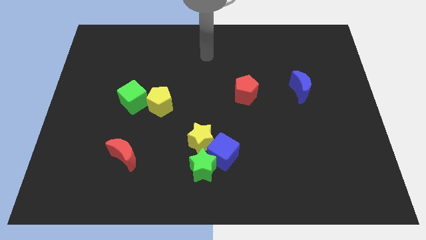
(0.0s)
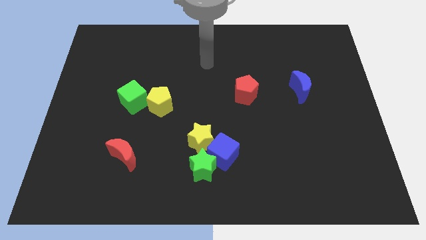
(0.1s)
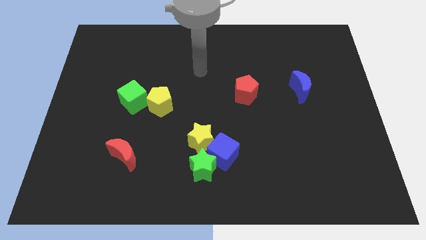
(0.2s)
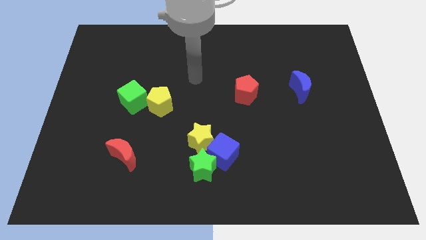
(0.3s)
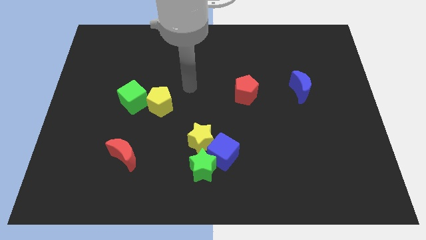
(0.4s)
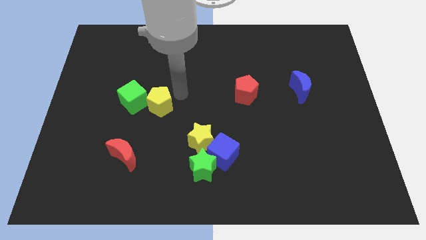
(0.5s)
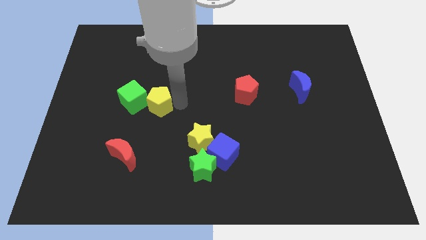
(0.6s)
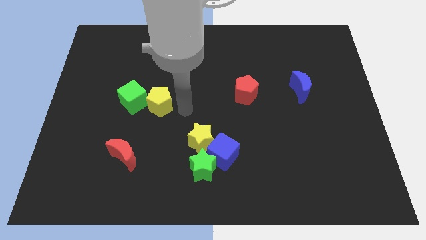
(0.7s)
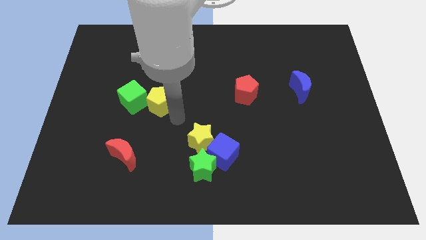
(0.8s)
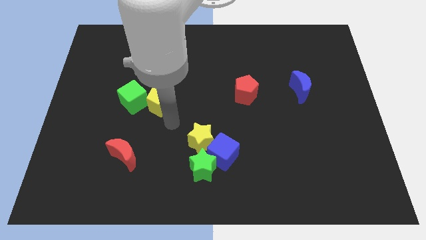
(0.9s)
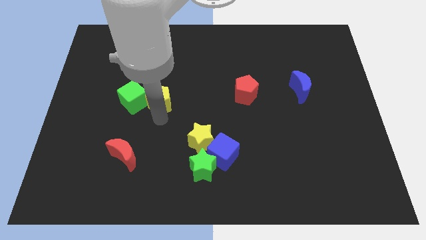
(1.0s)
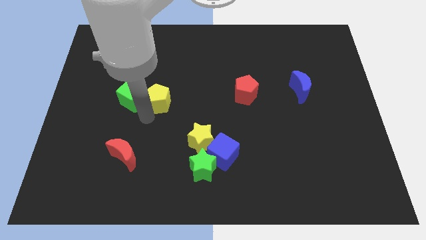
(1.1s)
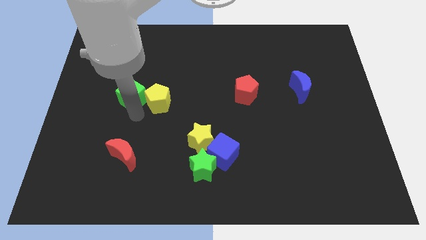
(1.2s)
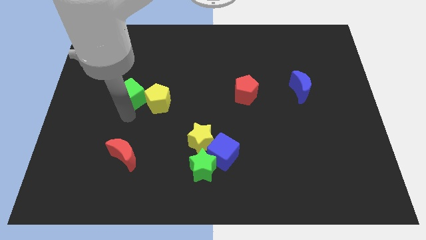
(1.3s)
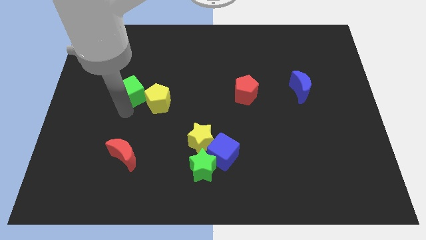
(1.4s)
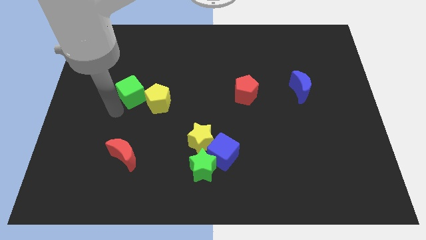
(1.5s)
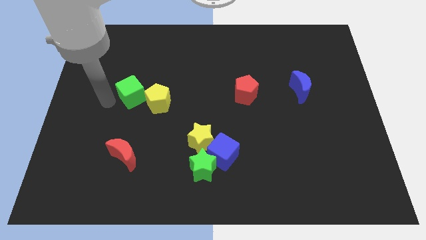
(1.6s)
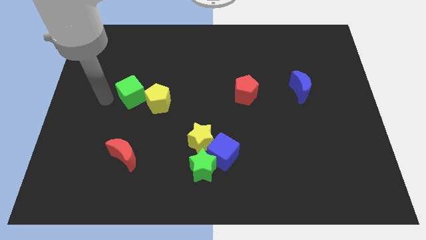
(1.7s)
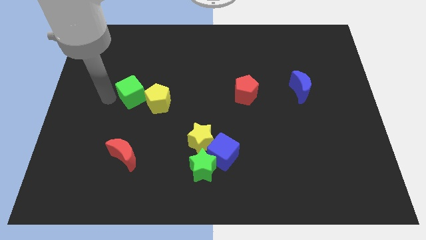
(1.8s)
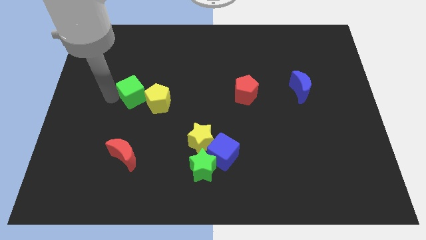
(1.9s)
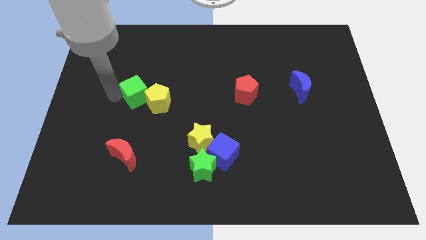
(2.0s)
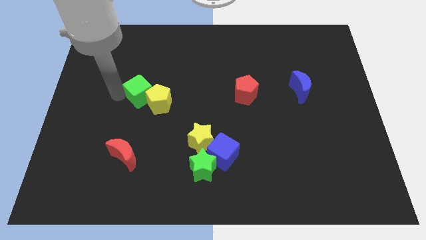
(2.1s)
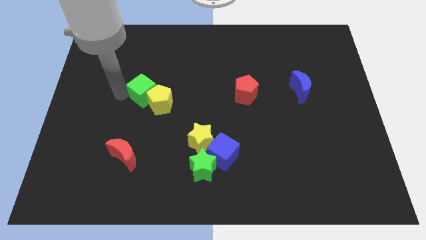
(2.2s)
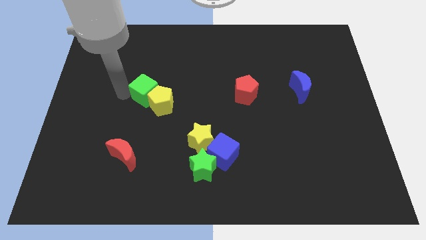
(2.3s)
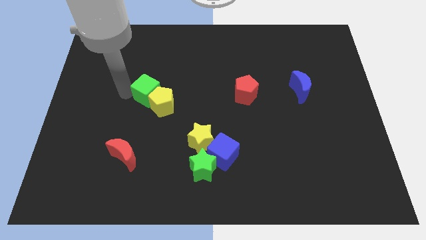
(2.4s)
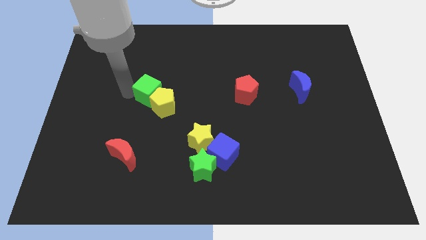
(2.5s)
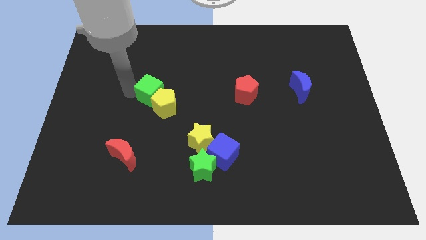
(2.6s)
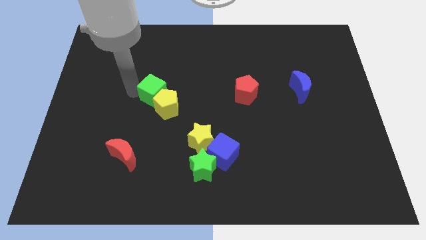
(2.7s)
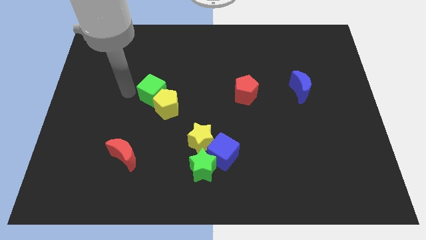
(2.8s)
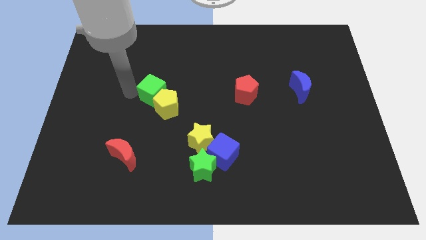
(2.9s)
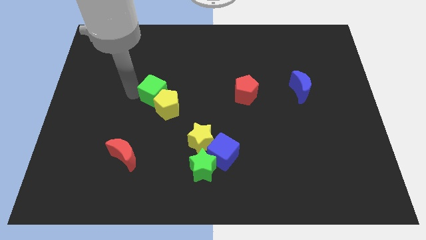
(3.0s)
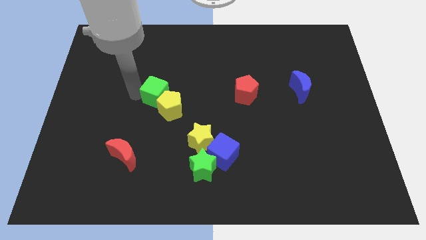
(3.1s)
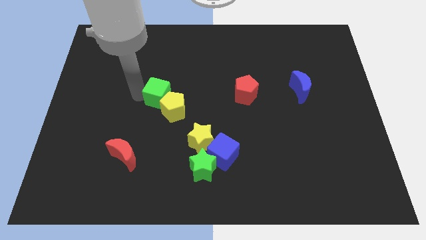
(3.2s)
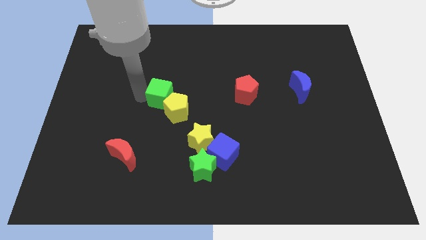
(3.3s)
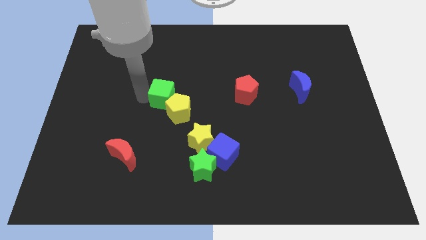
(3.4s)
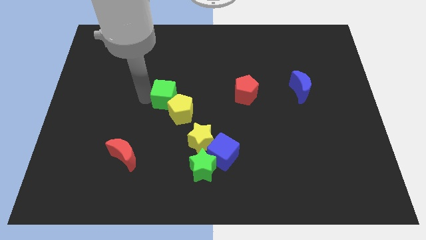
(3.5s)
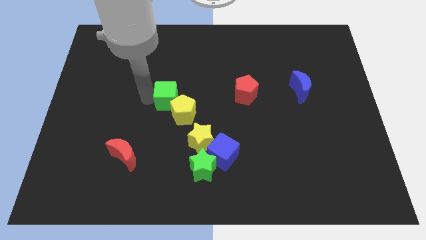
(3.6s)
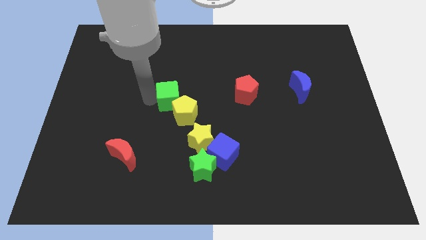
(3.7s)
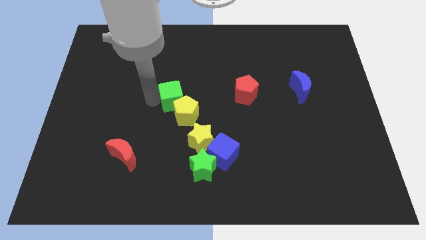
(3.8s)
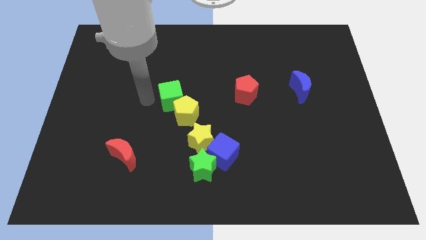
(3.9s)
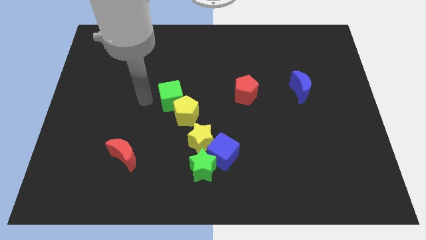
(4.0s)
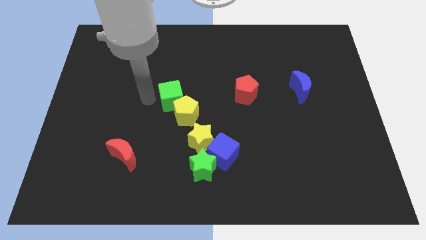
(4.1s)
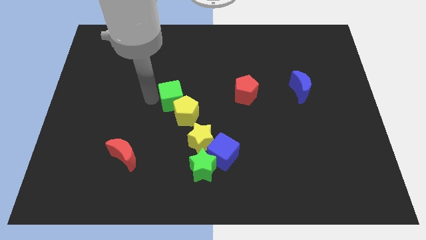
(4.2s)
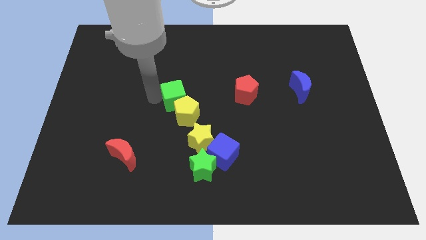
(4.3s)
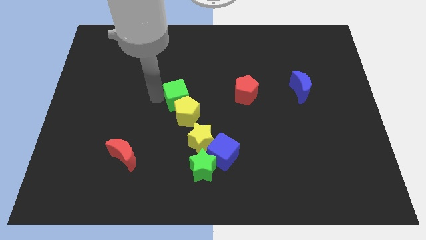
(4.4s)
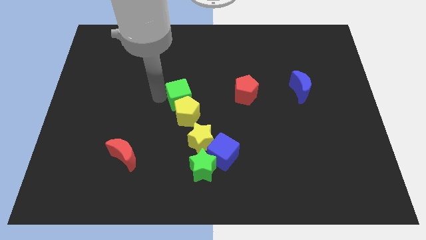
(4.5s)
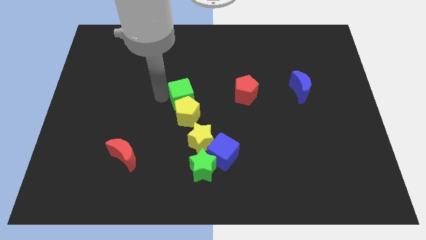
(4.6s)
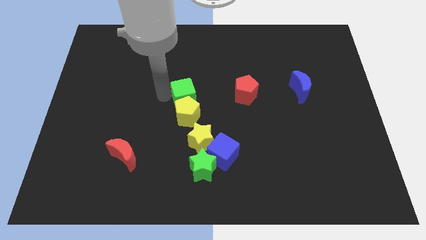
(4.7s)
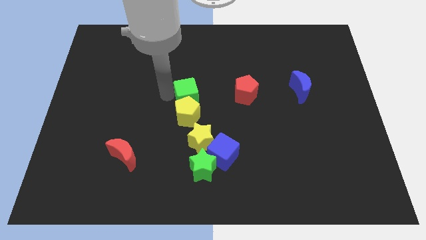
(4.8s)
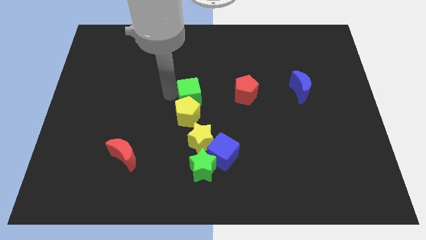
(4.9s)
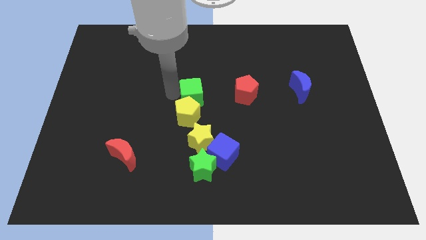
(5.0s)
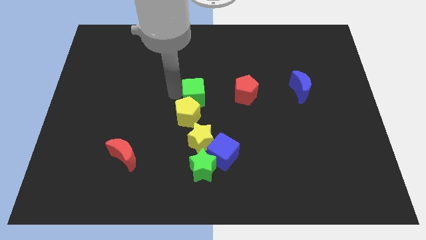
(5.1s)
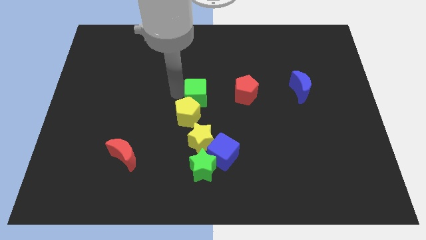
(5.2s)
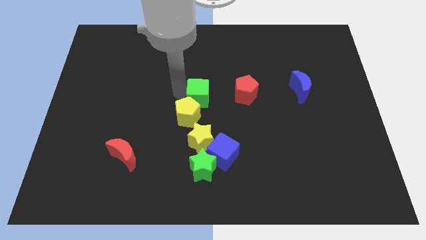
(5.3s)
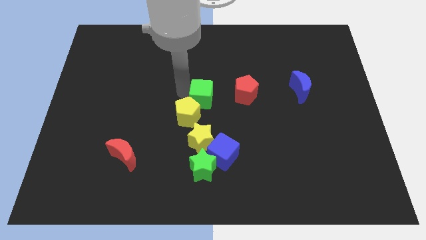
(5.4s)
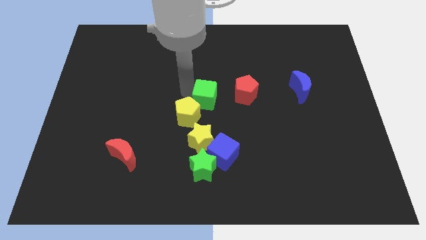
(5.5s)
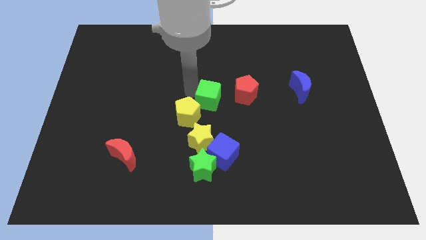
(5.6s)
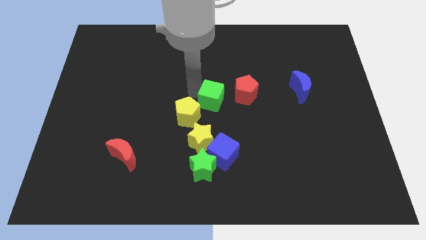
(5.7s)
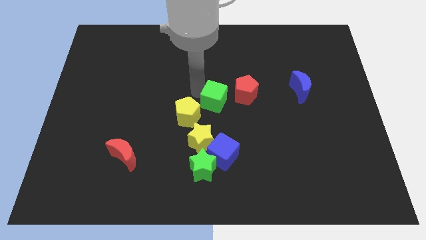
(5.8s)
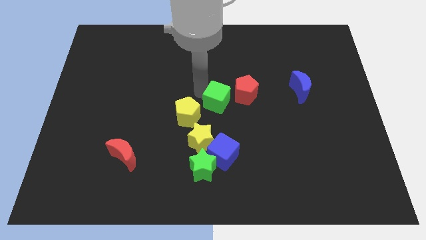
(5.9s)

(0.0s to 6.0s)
slide the green cube right

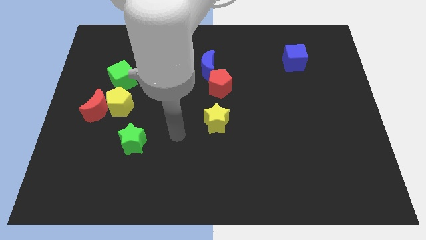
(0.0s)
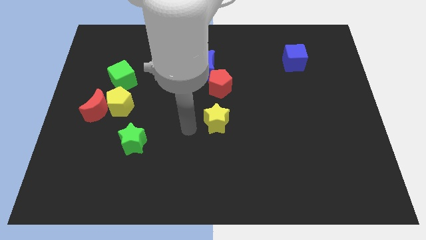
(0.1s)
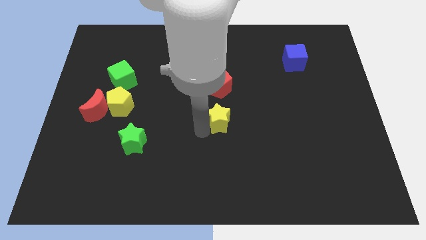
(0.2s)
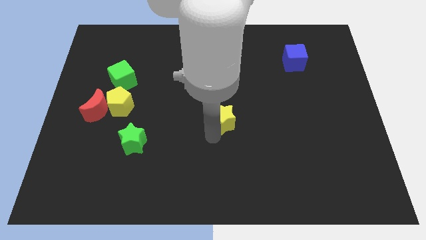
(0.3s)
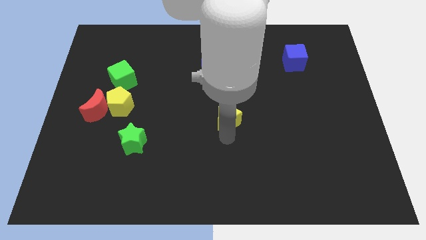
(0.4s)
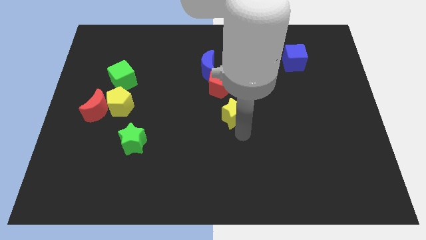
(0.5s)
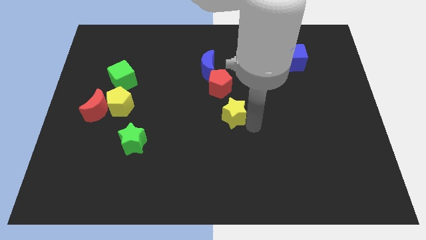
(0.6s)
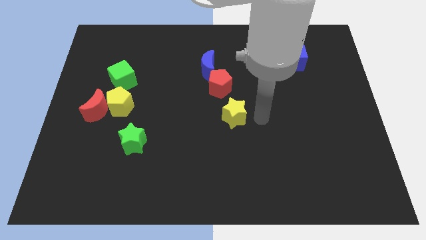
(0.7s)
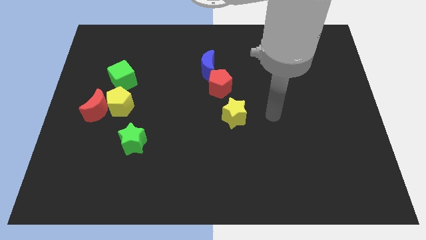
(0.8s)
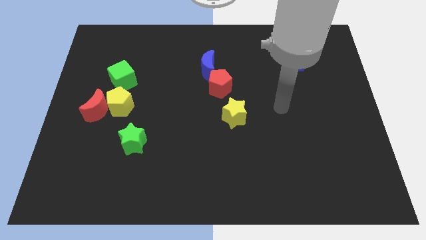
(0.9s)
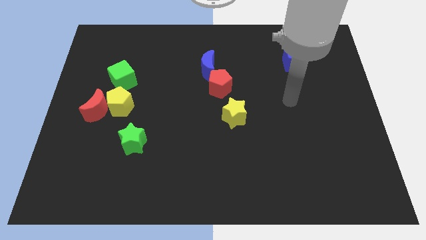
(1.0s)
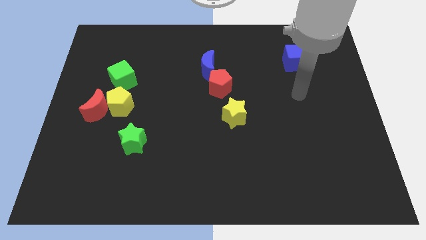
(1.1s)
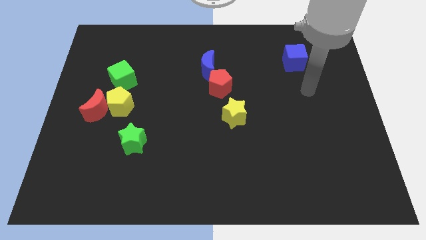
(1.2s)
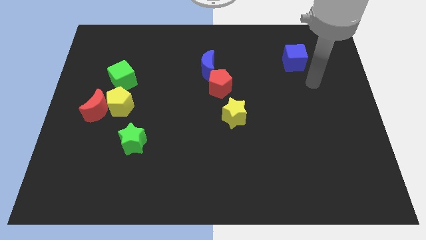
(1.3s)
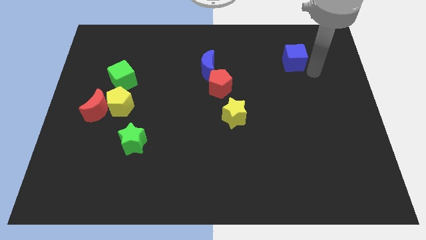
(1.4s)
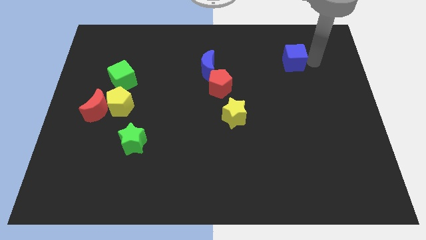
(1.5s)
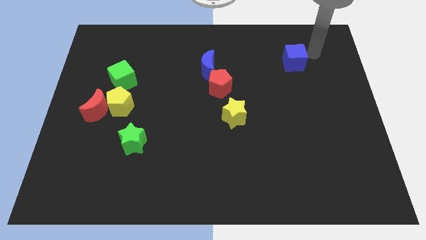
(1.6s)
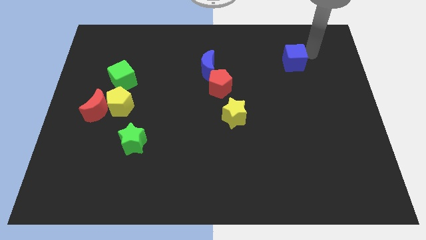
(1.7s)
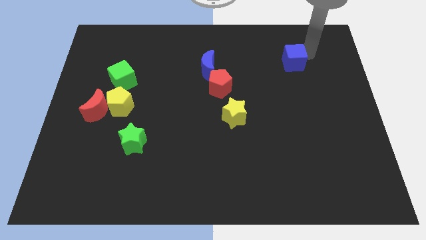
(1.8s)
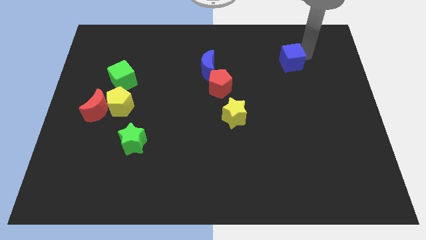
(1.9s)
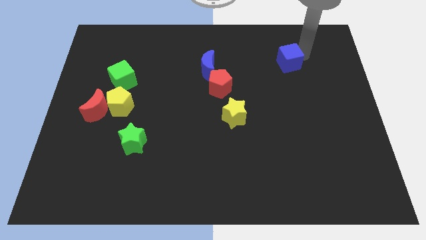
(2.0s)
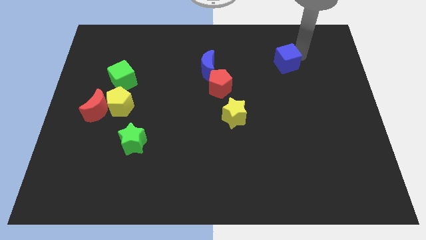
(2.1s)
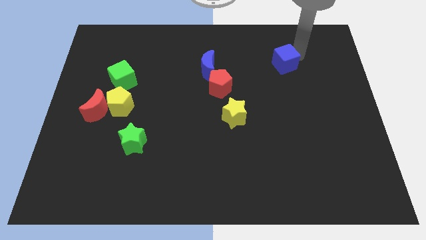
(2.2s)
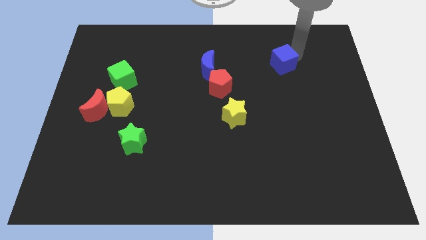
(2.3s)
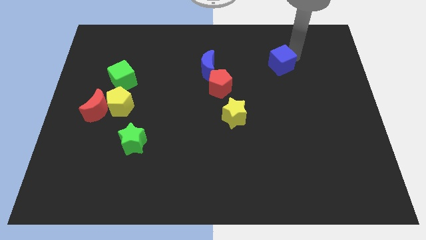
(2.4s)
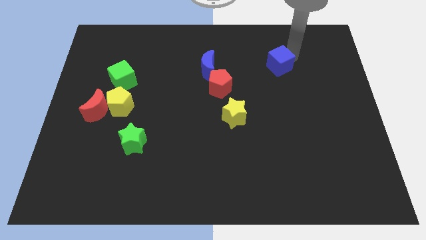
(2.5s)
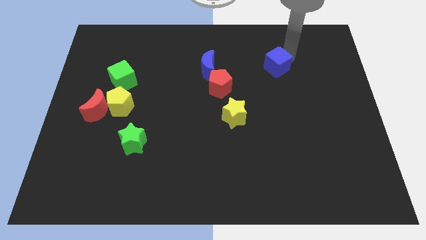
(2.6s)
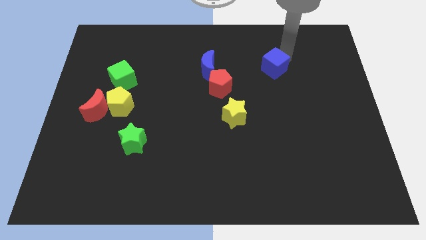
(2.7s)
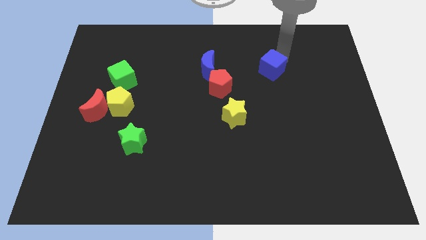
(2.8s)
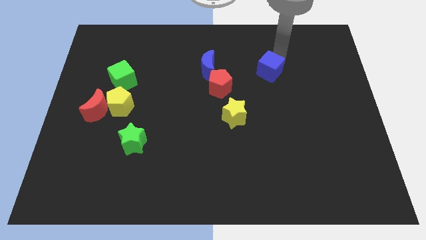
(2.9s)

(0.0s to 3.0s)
slightly push the blue cube down and left
